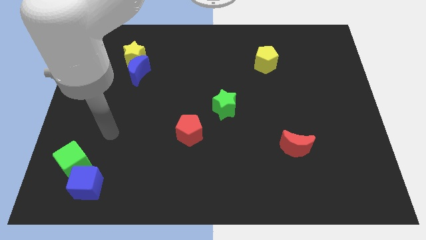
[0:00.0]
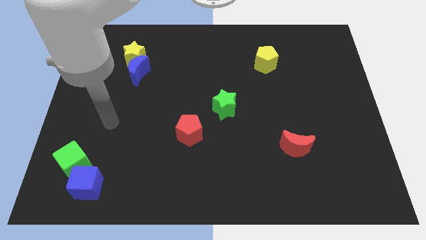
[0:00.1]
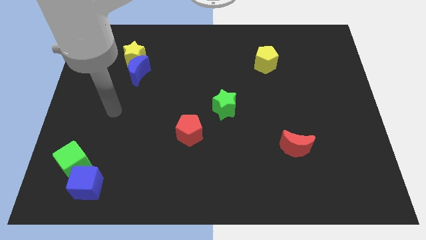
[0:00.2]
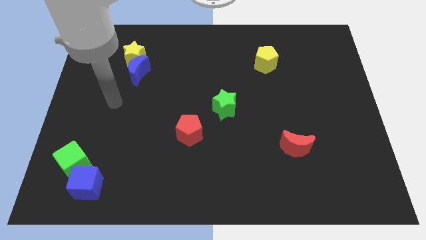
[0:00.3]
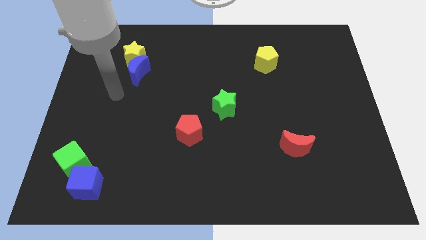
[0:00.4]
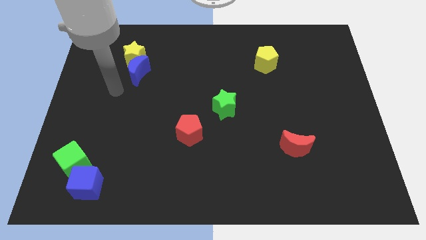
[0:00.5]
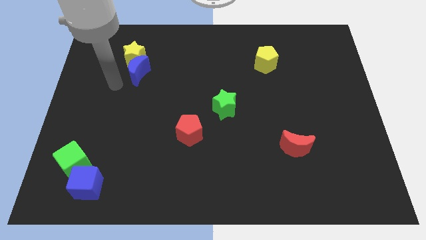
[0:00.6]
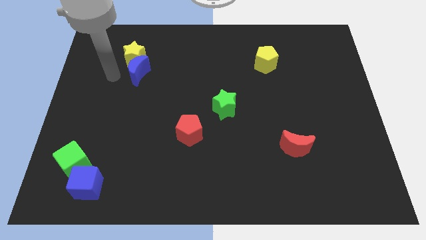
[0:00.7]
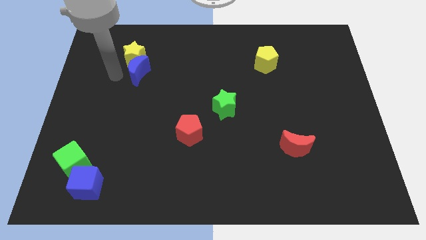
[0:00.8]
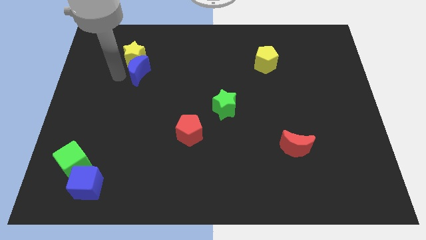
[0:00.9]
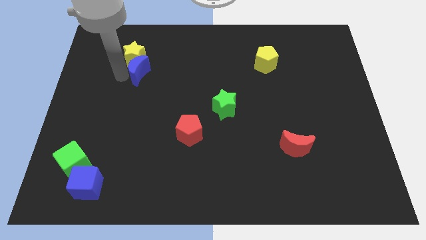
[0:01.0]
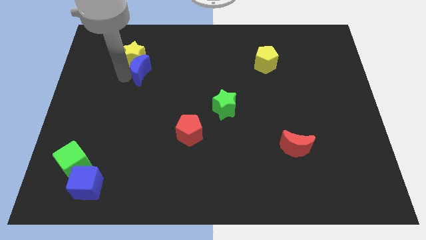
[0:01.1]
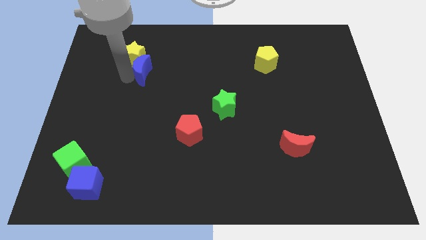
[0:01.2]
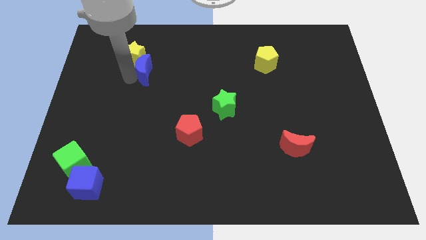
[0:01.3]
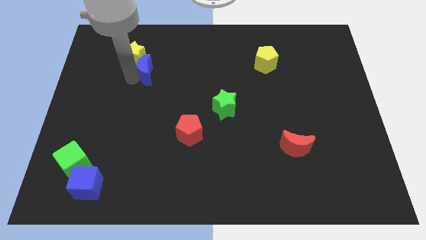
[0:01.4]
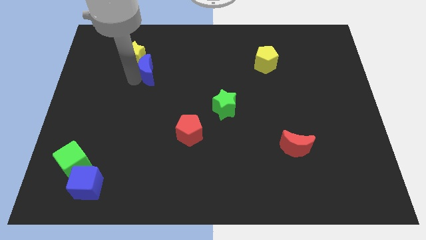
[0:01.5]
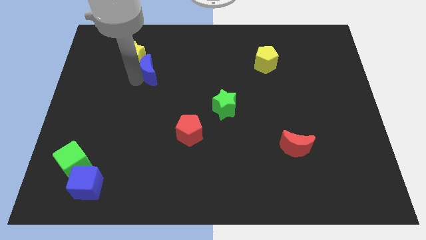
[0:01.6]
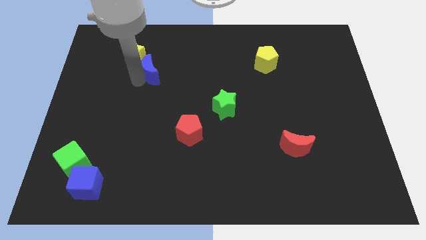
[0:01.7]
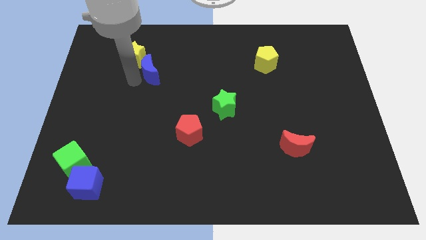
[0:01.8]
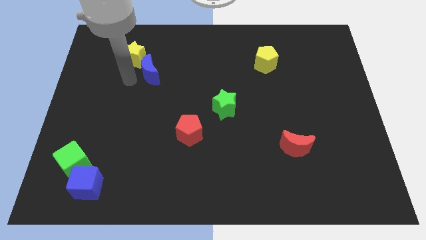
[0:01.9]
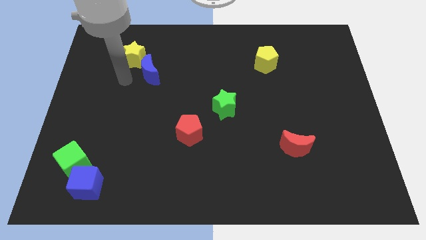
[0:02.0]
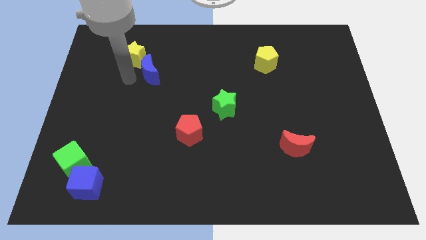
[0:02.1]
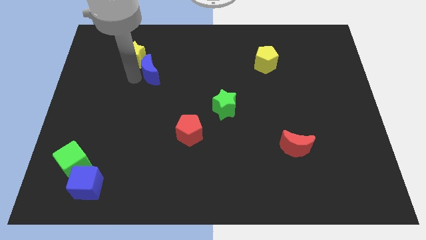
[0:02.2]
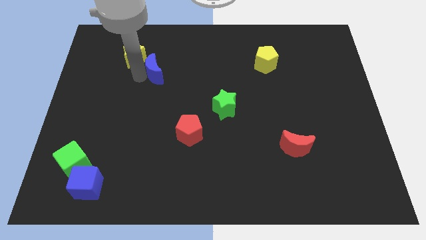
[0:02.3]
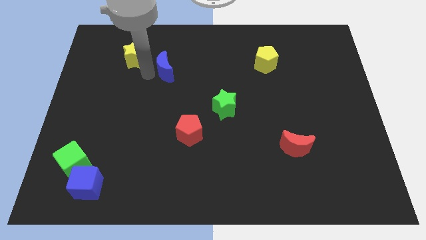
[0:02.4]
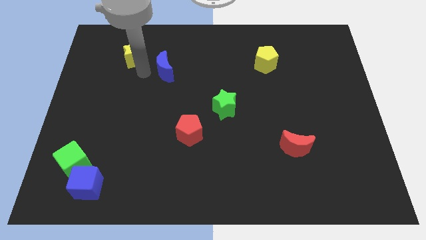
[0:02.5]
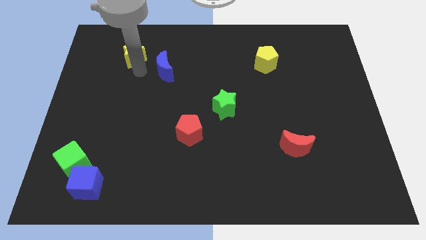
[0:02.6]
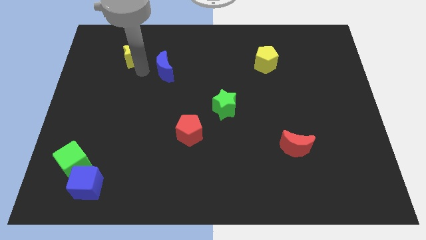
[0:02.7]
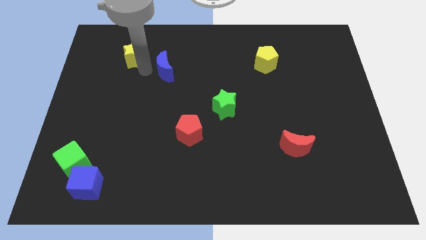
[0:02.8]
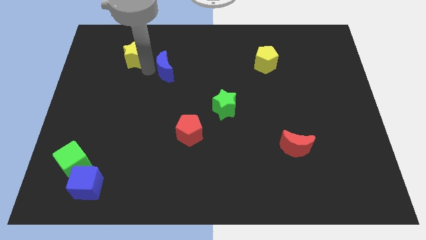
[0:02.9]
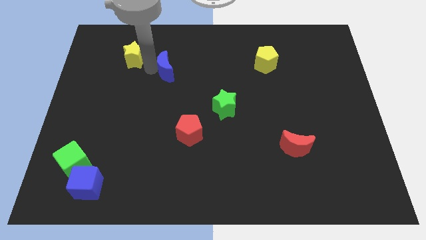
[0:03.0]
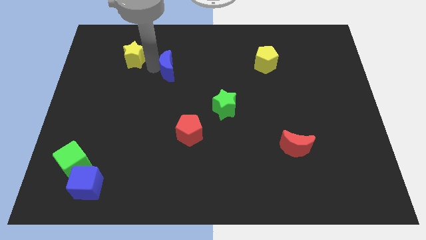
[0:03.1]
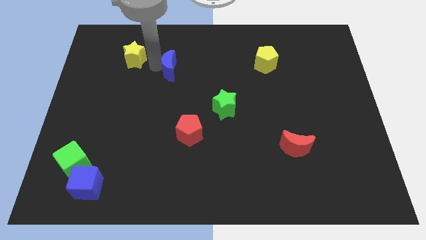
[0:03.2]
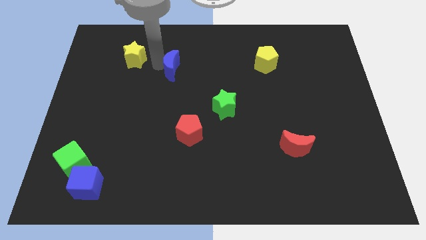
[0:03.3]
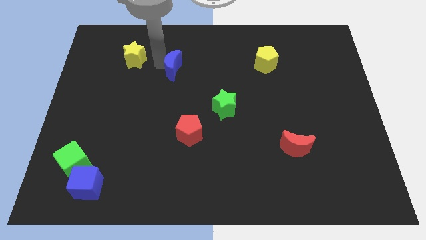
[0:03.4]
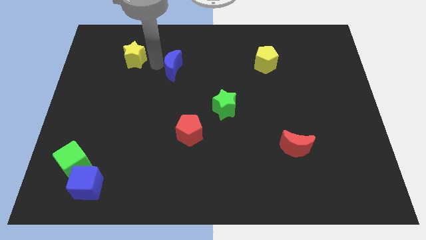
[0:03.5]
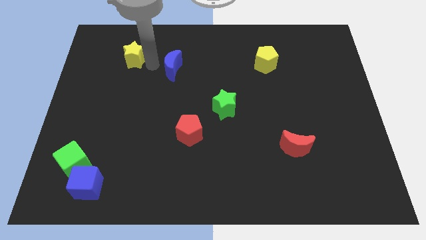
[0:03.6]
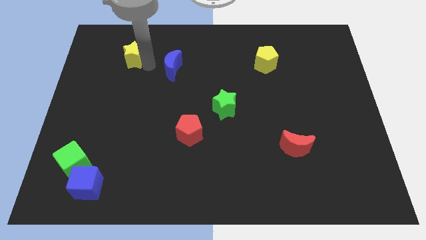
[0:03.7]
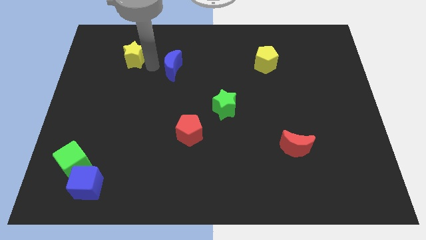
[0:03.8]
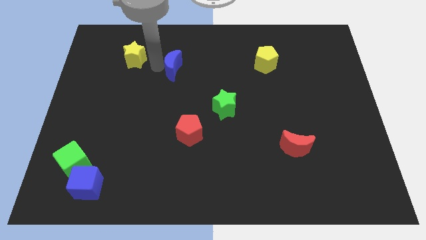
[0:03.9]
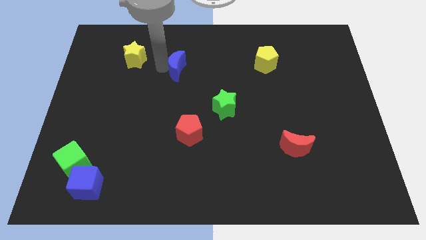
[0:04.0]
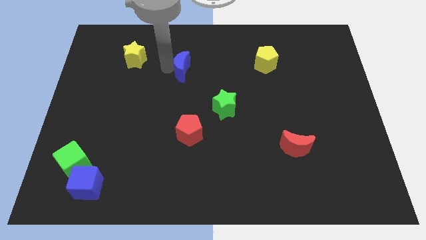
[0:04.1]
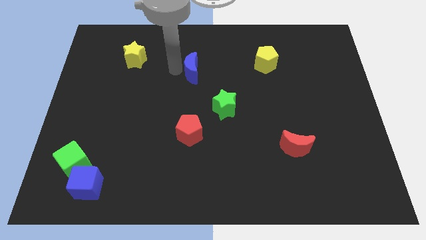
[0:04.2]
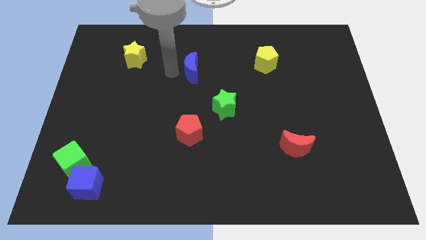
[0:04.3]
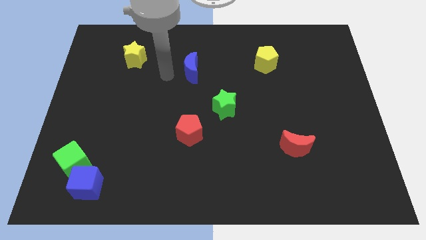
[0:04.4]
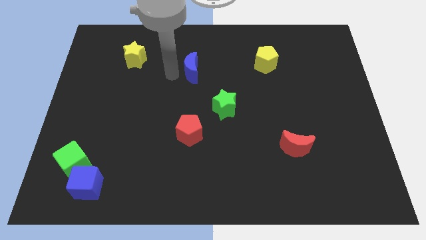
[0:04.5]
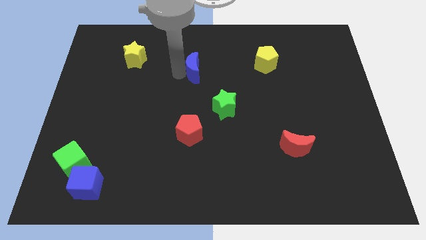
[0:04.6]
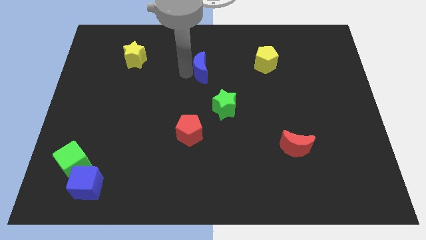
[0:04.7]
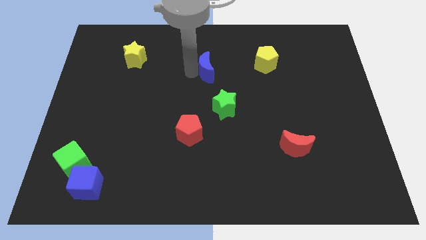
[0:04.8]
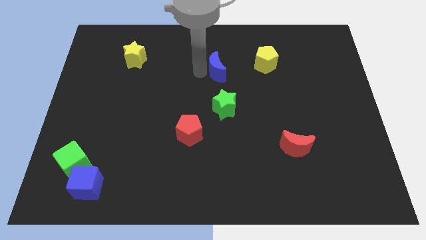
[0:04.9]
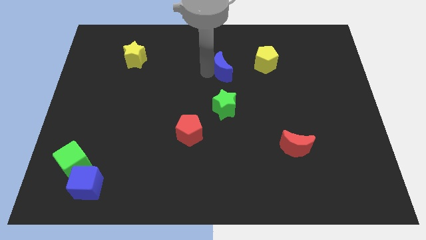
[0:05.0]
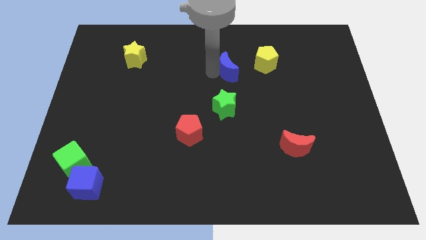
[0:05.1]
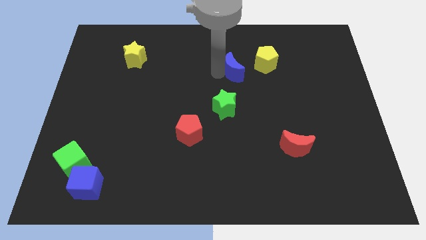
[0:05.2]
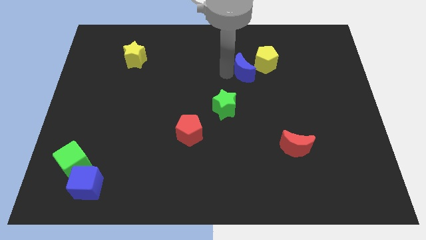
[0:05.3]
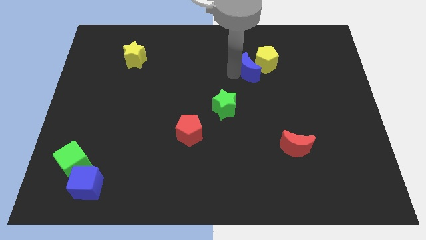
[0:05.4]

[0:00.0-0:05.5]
move the blue moon next to the yellow pentagon

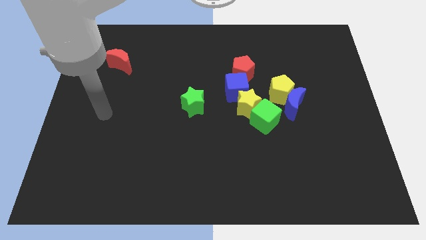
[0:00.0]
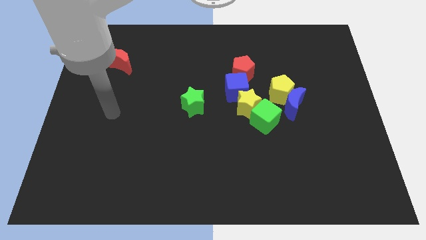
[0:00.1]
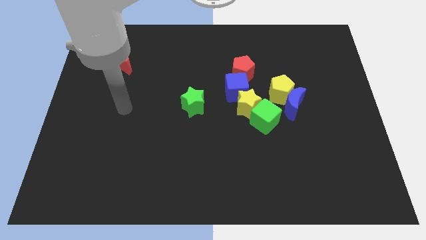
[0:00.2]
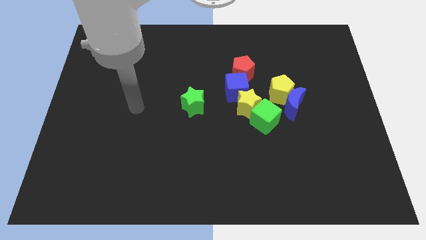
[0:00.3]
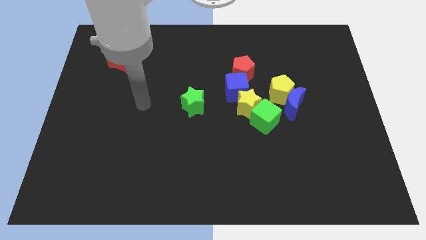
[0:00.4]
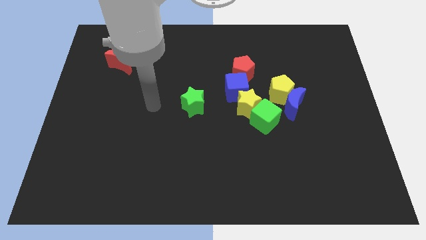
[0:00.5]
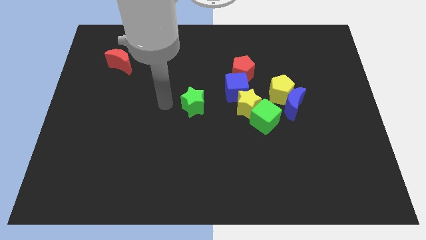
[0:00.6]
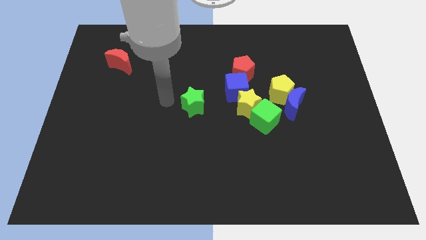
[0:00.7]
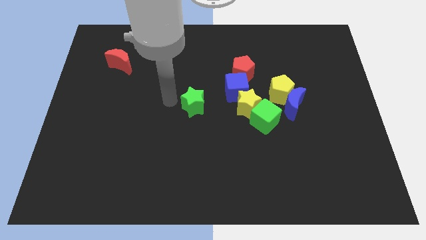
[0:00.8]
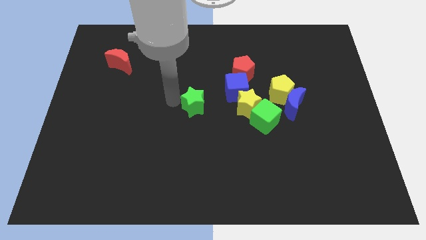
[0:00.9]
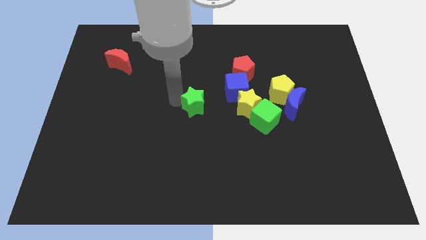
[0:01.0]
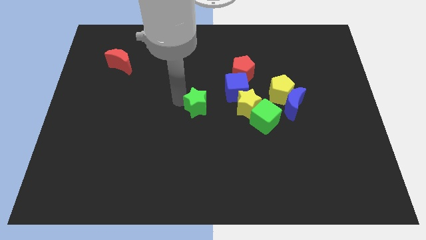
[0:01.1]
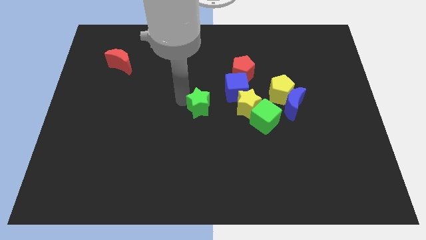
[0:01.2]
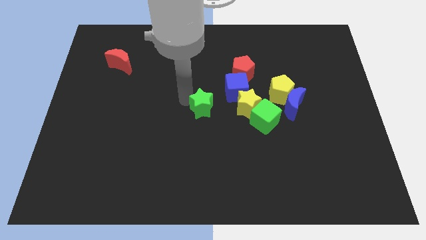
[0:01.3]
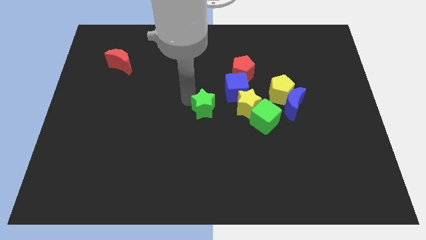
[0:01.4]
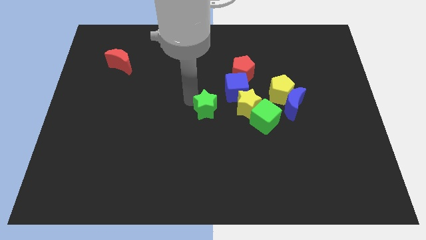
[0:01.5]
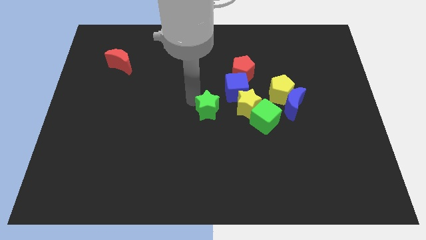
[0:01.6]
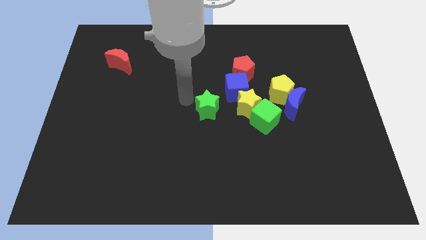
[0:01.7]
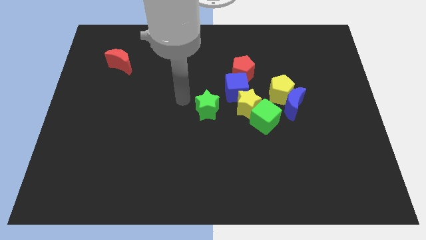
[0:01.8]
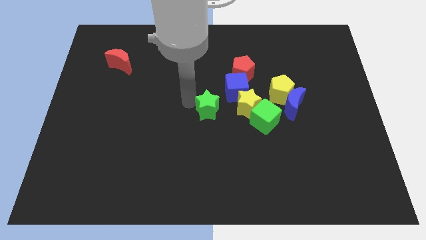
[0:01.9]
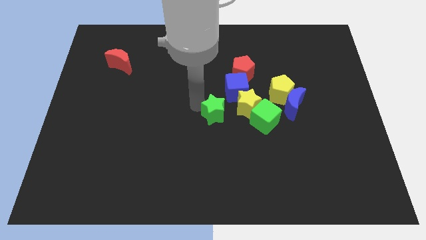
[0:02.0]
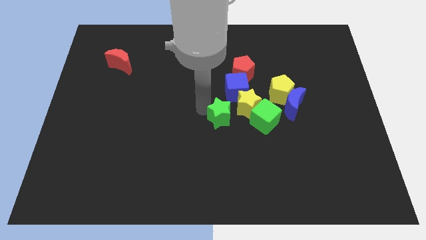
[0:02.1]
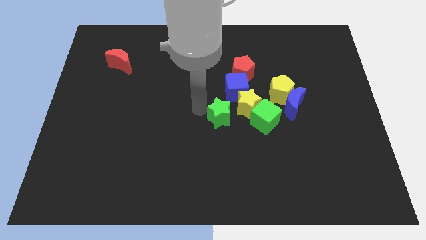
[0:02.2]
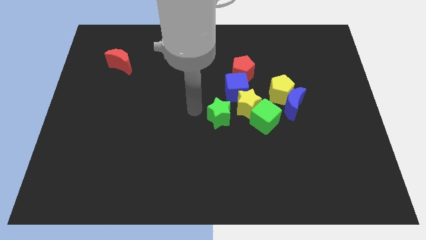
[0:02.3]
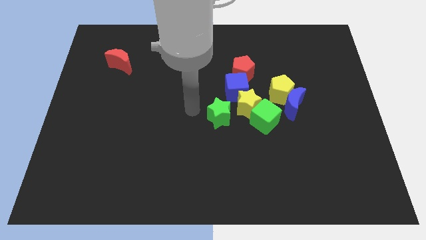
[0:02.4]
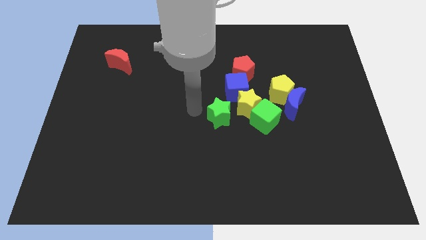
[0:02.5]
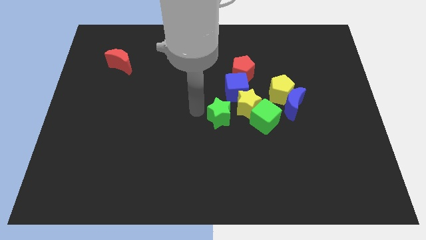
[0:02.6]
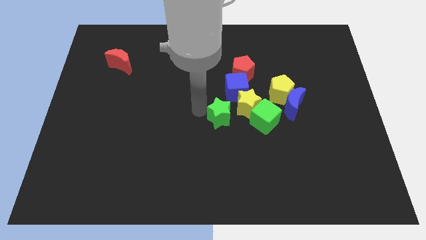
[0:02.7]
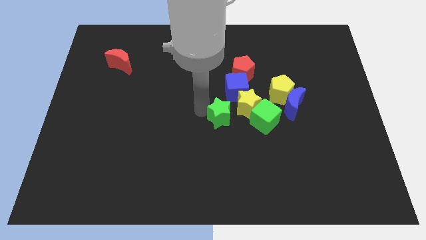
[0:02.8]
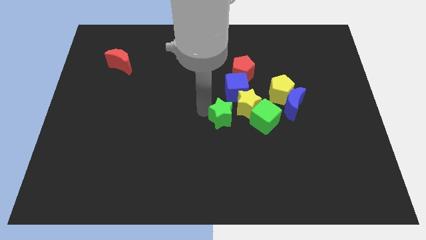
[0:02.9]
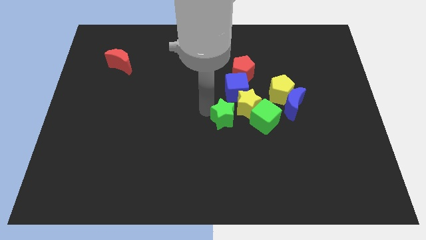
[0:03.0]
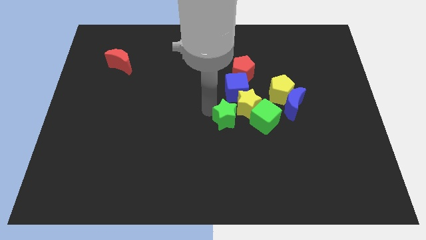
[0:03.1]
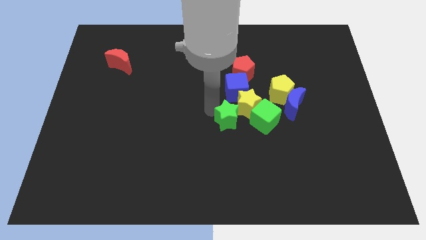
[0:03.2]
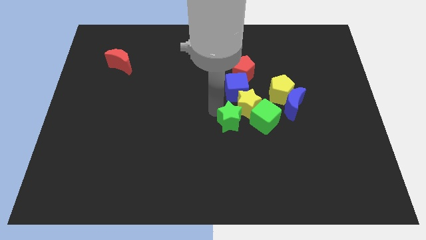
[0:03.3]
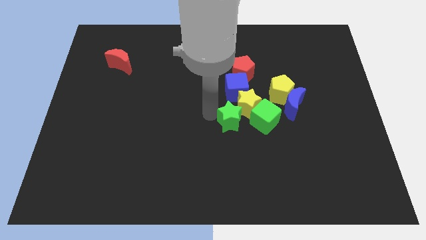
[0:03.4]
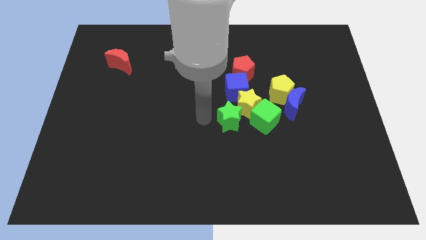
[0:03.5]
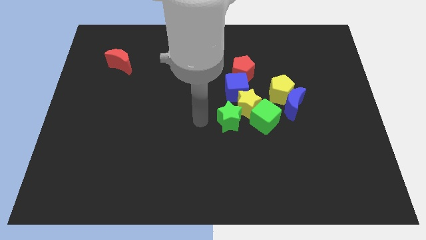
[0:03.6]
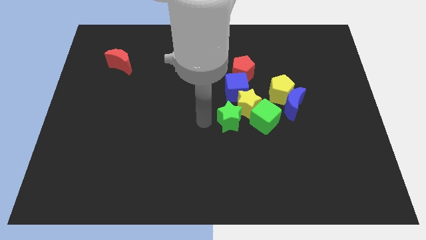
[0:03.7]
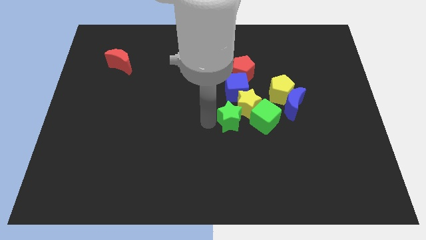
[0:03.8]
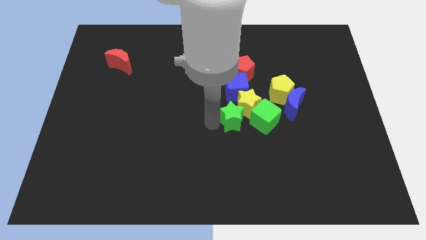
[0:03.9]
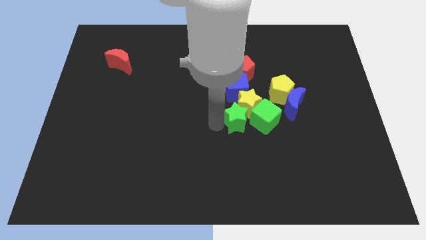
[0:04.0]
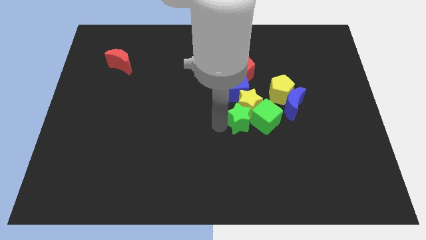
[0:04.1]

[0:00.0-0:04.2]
put the green star next to the green cube
